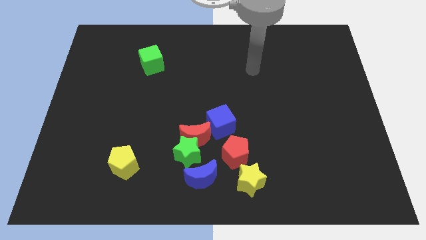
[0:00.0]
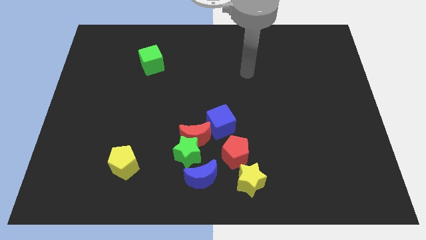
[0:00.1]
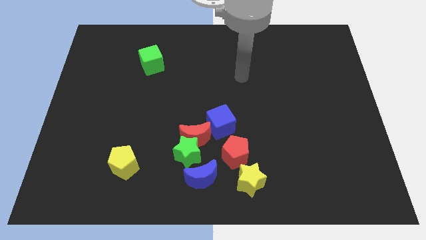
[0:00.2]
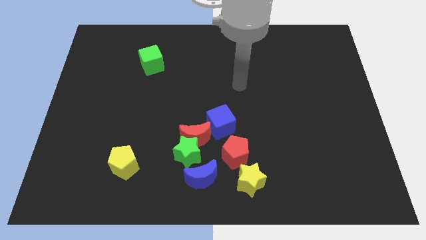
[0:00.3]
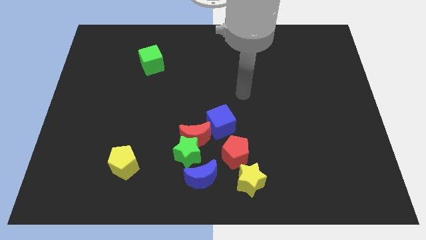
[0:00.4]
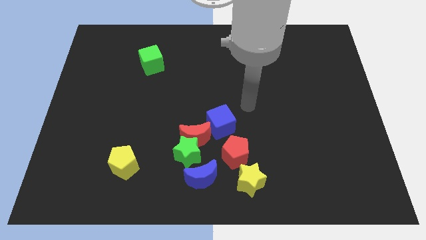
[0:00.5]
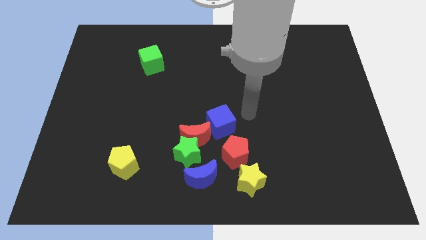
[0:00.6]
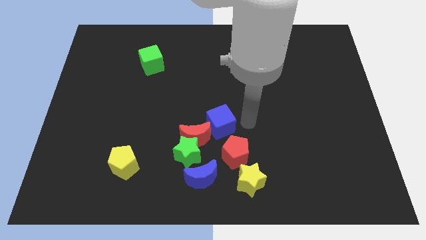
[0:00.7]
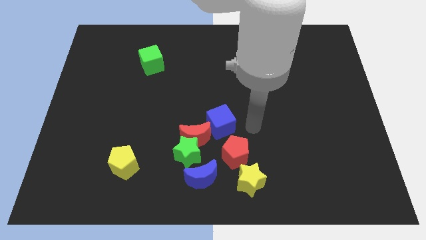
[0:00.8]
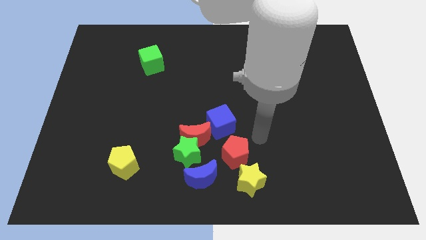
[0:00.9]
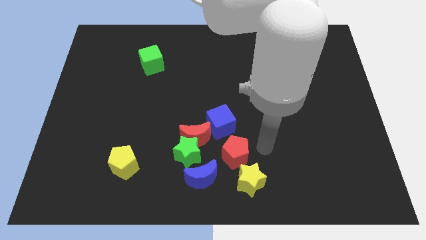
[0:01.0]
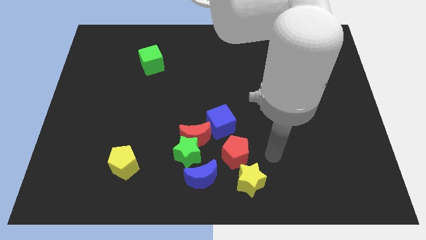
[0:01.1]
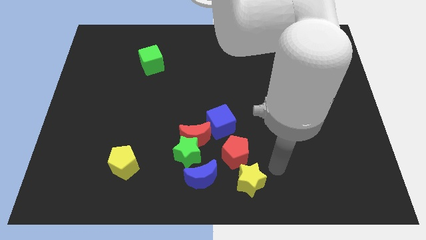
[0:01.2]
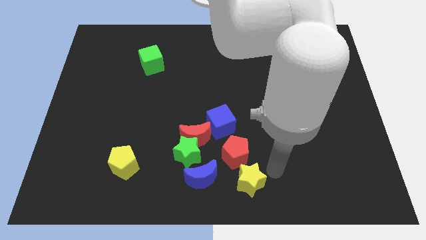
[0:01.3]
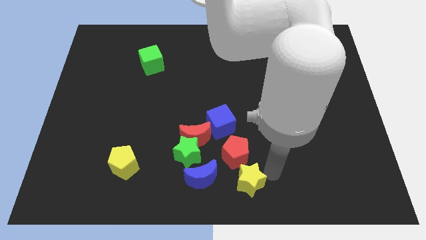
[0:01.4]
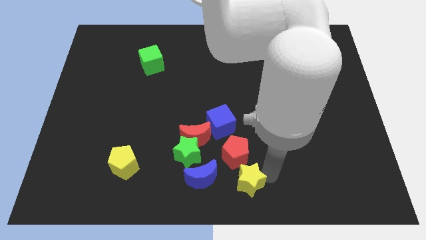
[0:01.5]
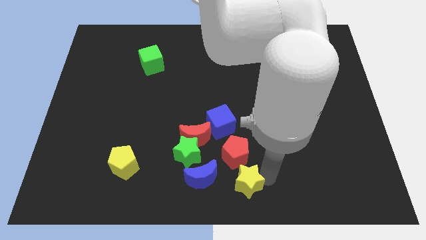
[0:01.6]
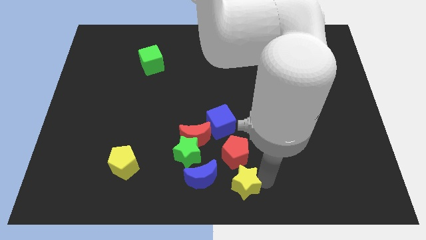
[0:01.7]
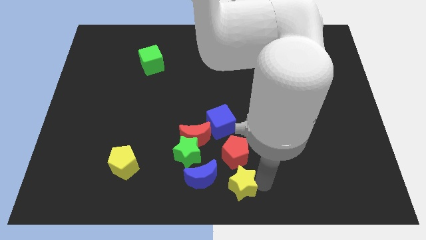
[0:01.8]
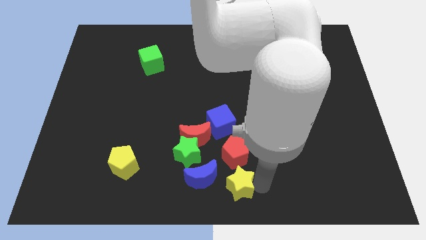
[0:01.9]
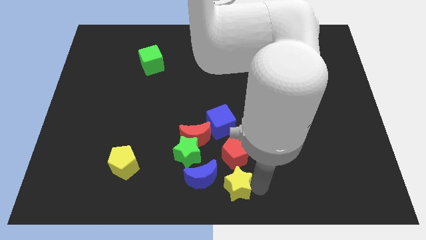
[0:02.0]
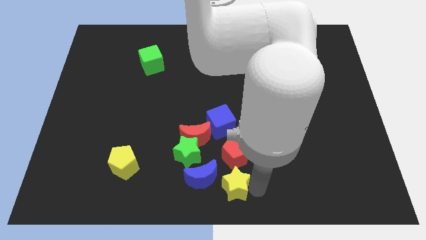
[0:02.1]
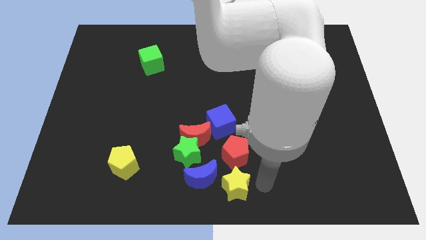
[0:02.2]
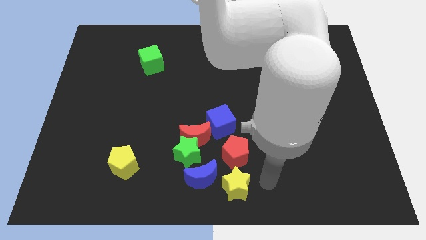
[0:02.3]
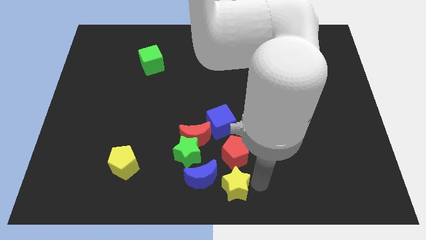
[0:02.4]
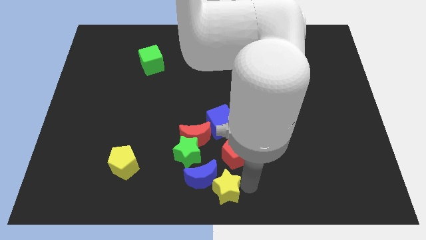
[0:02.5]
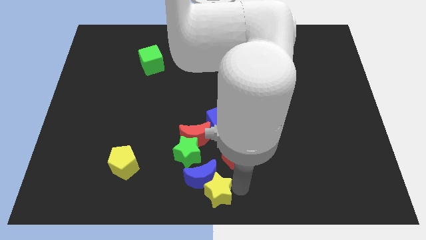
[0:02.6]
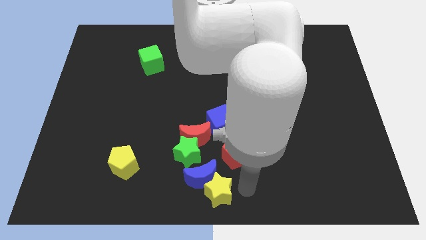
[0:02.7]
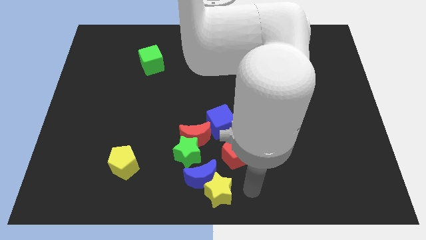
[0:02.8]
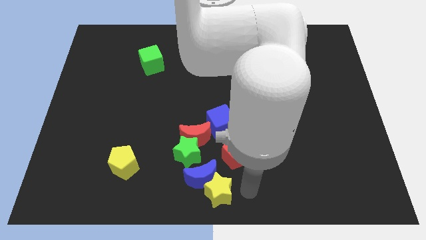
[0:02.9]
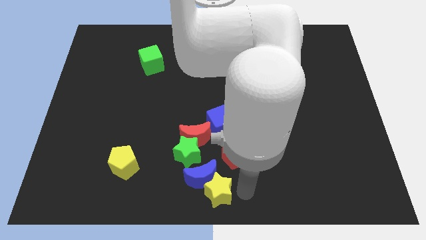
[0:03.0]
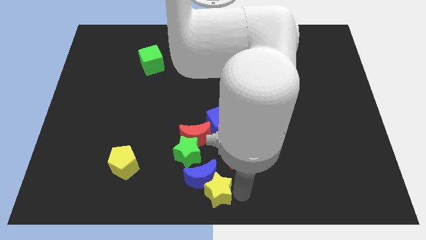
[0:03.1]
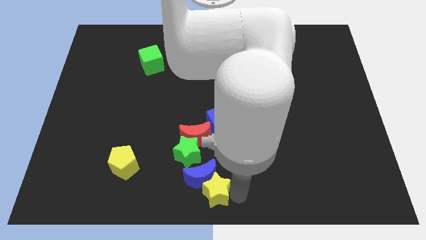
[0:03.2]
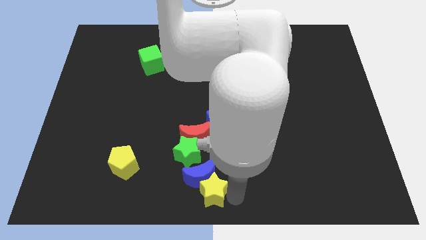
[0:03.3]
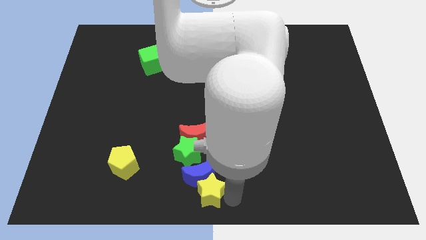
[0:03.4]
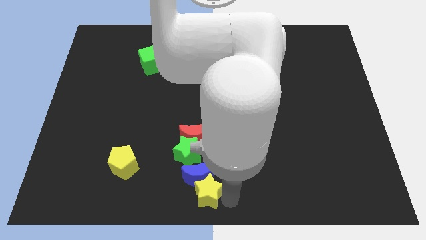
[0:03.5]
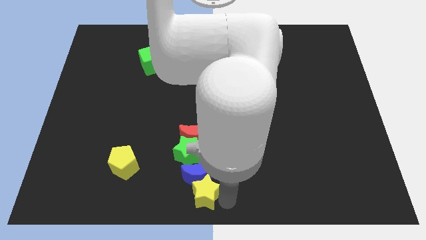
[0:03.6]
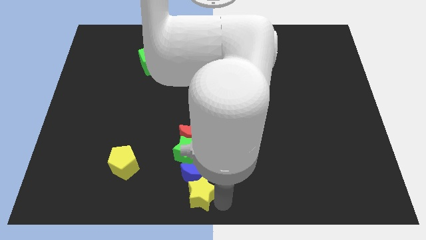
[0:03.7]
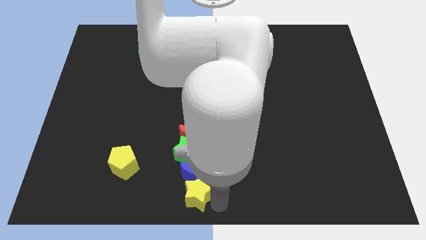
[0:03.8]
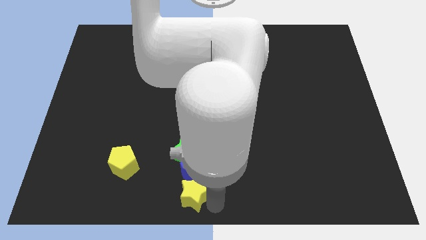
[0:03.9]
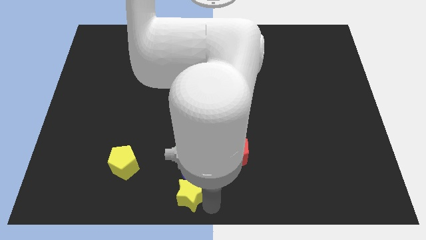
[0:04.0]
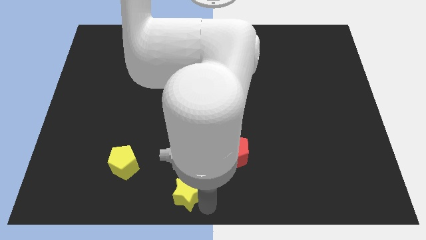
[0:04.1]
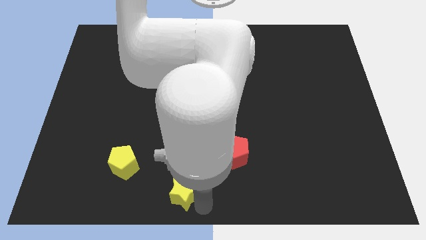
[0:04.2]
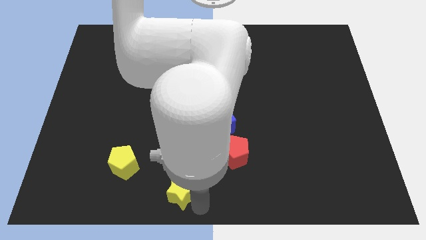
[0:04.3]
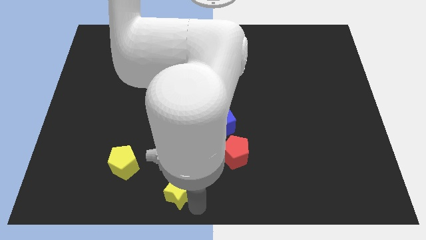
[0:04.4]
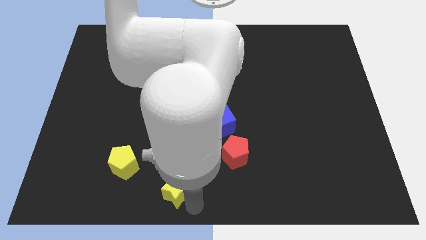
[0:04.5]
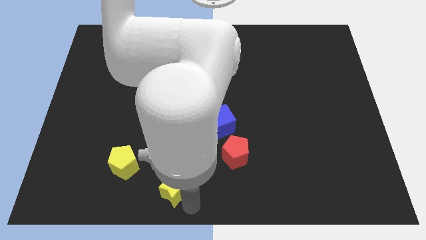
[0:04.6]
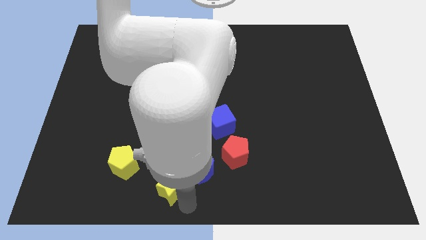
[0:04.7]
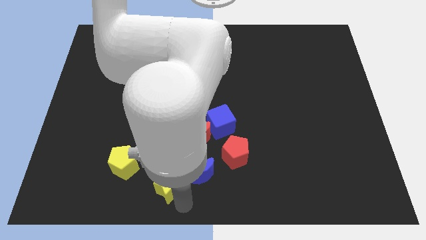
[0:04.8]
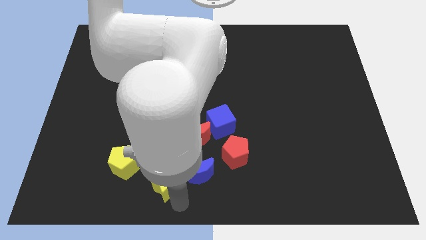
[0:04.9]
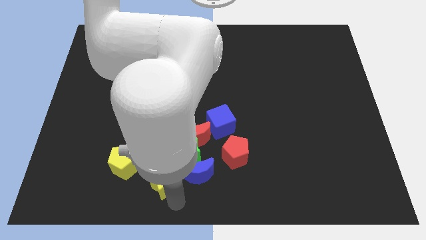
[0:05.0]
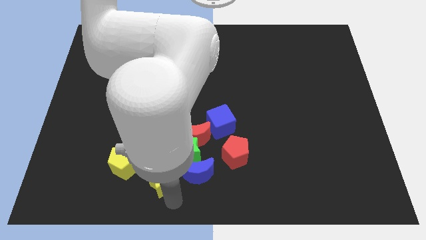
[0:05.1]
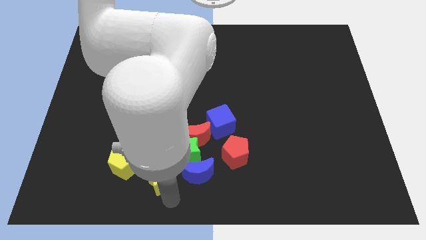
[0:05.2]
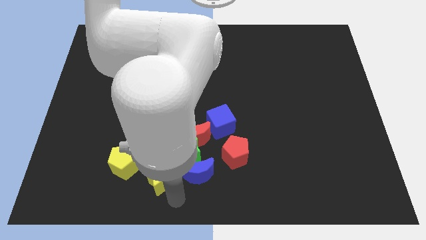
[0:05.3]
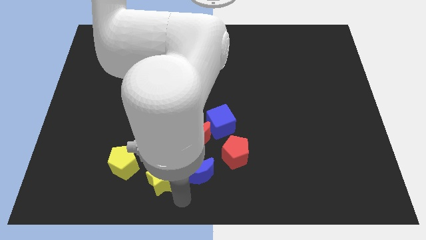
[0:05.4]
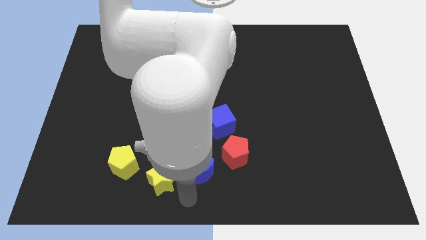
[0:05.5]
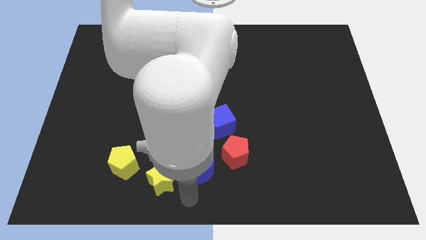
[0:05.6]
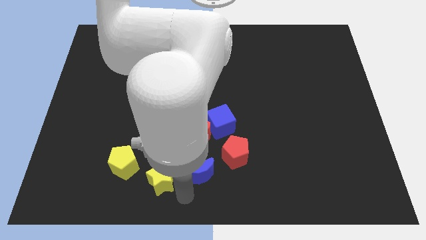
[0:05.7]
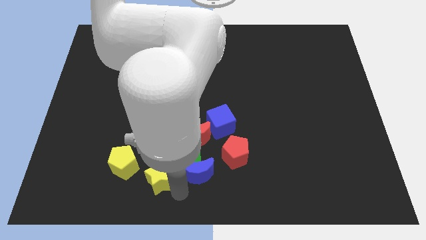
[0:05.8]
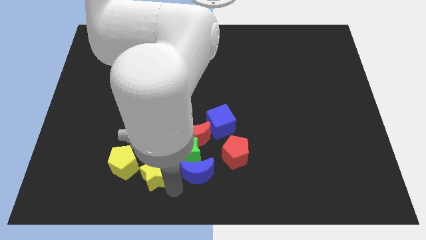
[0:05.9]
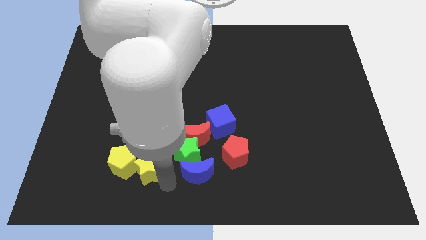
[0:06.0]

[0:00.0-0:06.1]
push the yellow star towards the yellow pentagon

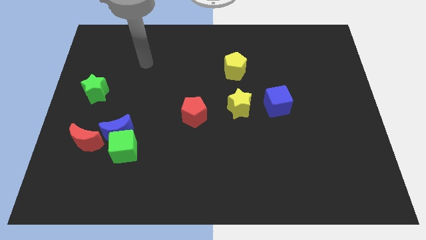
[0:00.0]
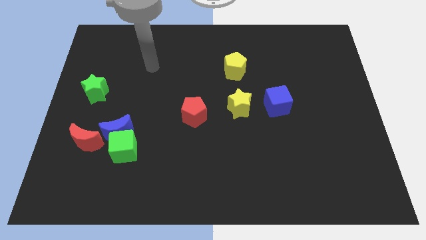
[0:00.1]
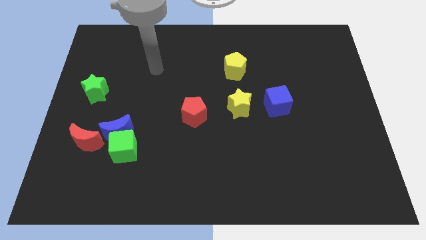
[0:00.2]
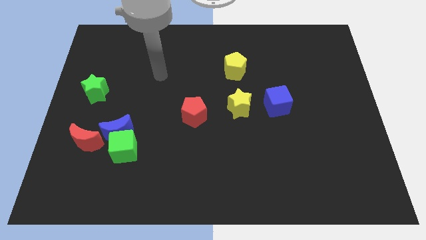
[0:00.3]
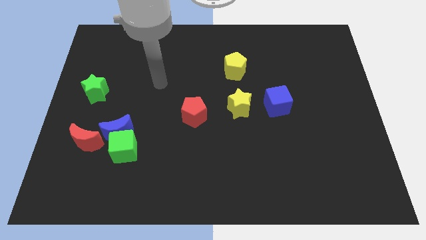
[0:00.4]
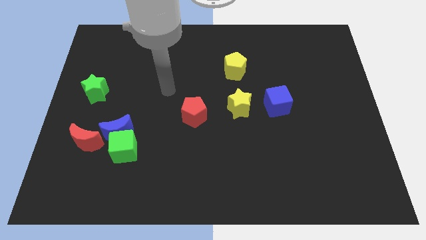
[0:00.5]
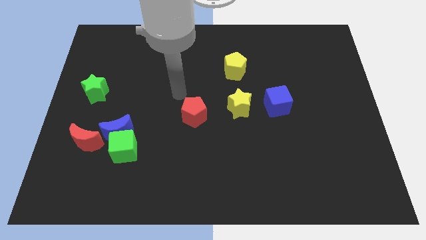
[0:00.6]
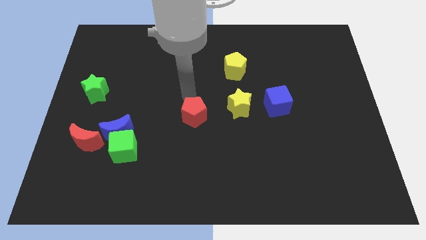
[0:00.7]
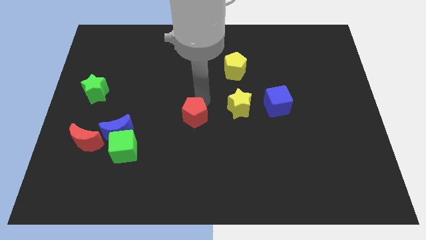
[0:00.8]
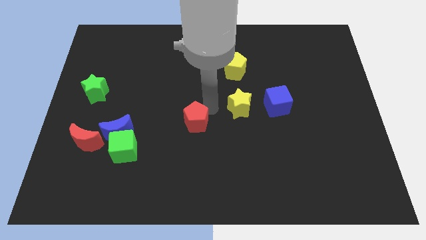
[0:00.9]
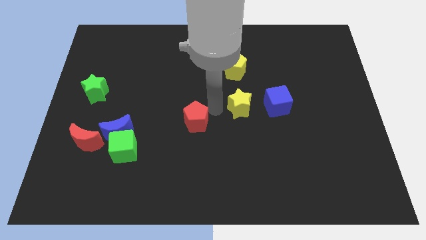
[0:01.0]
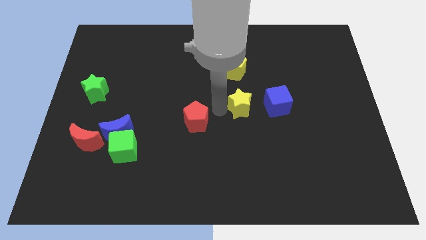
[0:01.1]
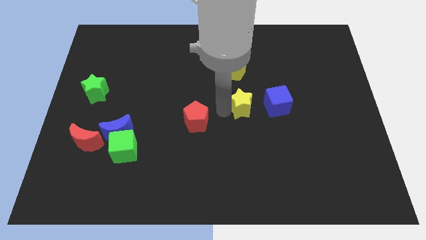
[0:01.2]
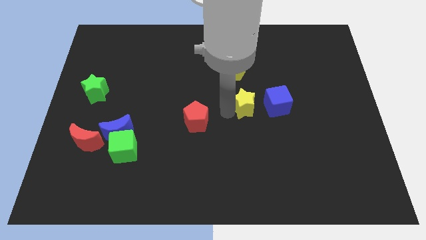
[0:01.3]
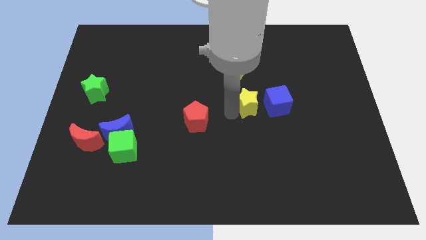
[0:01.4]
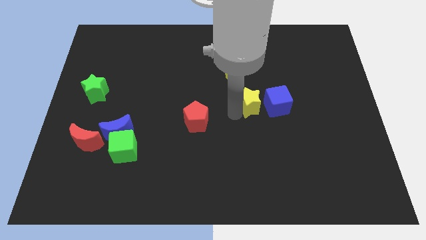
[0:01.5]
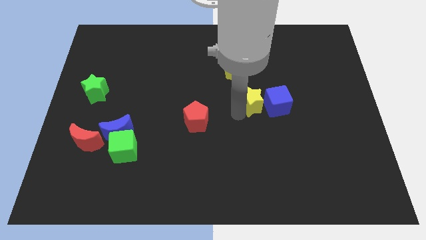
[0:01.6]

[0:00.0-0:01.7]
move the yellow star next to the blue cube

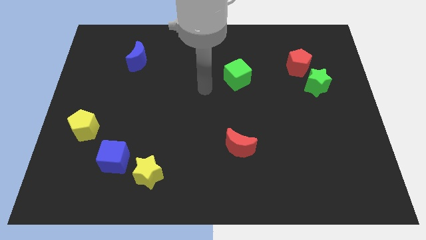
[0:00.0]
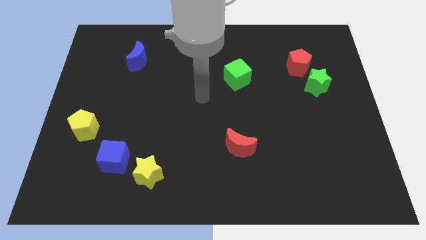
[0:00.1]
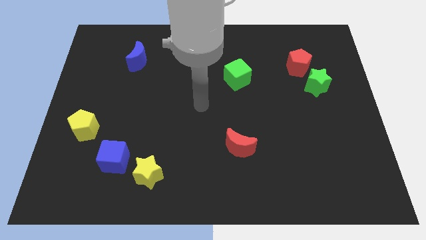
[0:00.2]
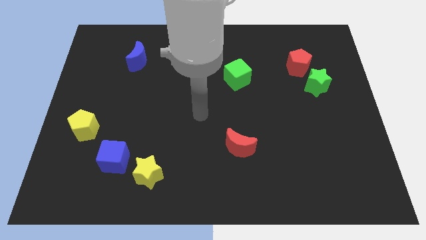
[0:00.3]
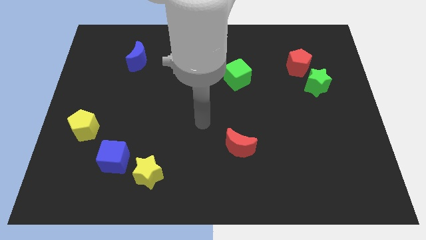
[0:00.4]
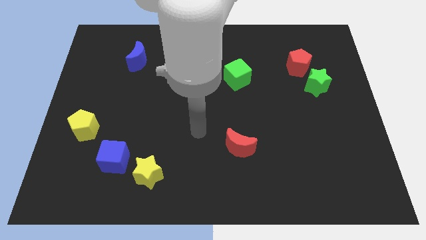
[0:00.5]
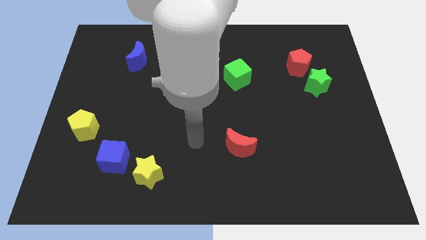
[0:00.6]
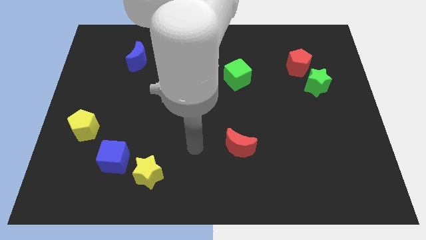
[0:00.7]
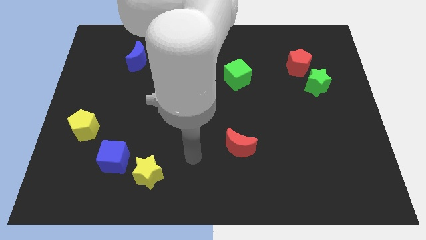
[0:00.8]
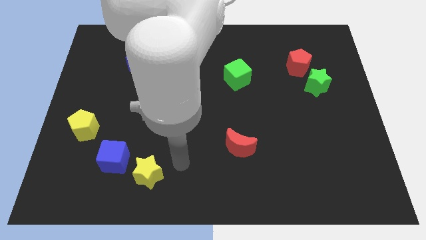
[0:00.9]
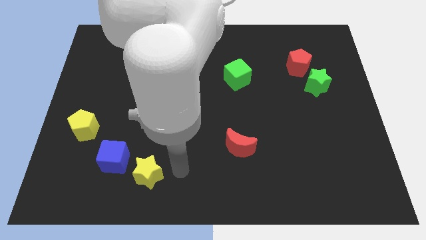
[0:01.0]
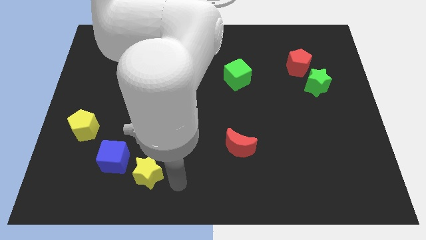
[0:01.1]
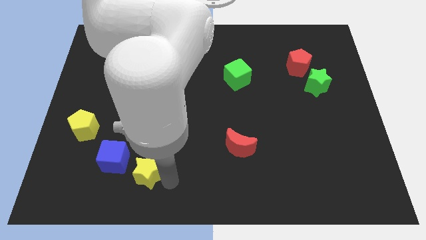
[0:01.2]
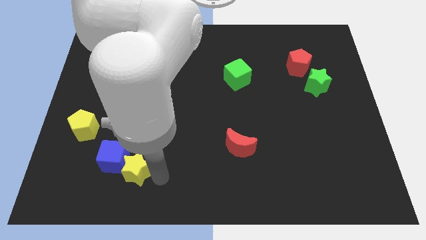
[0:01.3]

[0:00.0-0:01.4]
put the yellow star next to the blue cube
